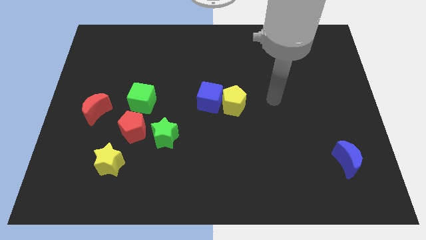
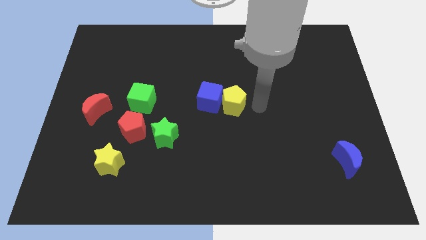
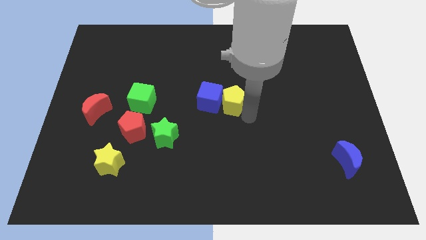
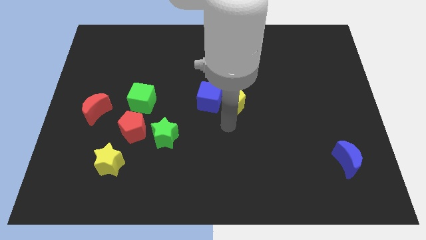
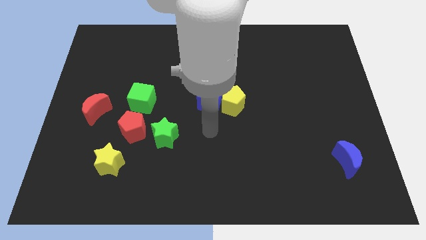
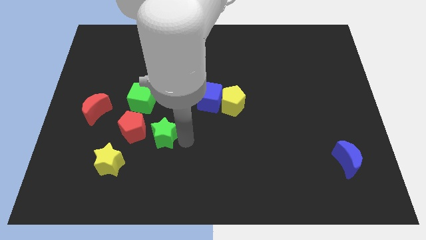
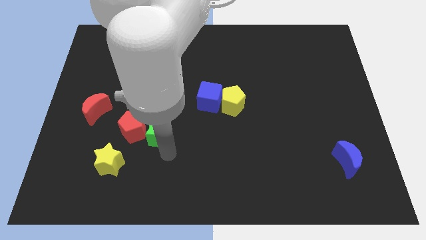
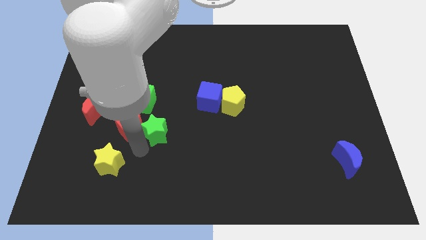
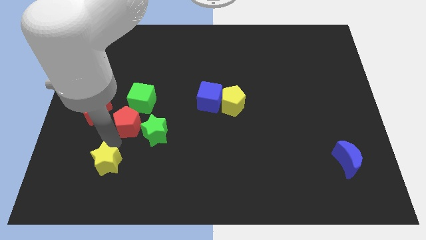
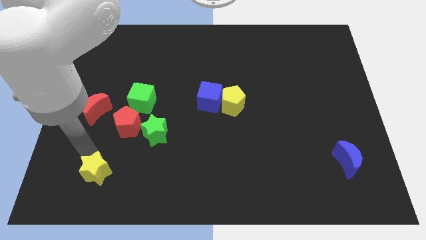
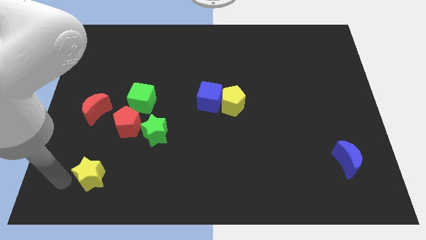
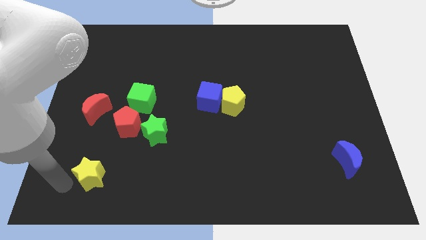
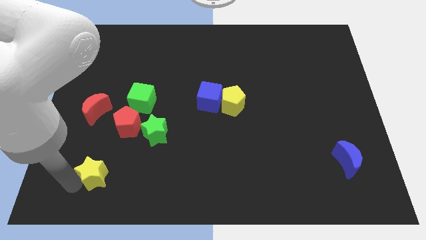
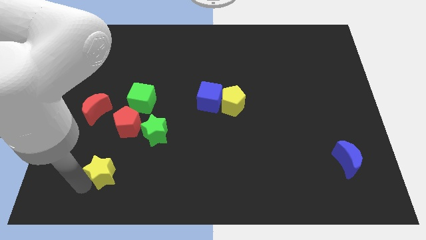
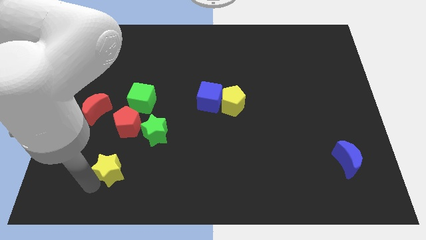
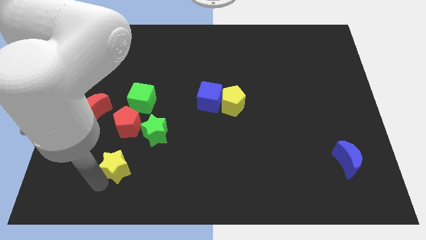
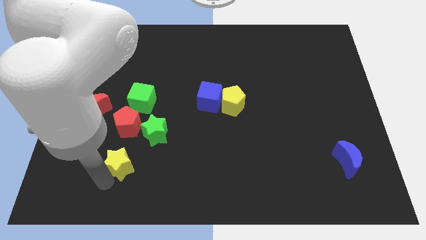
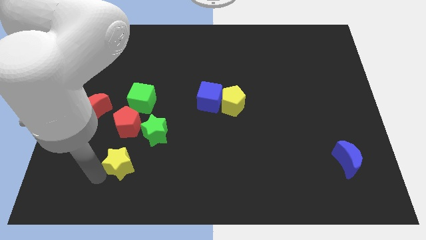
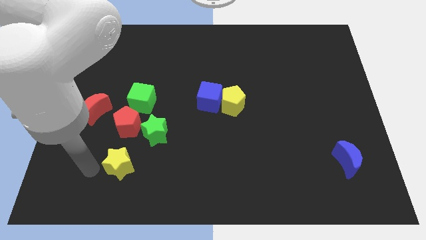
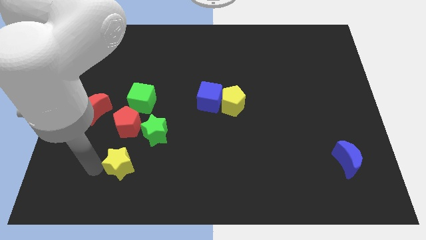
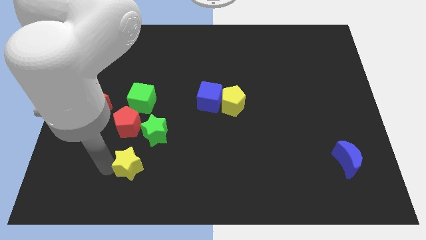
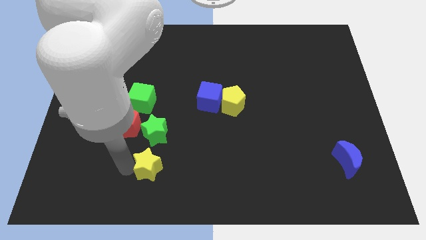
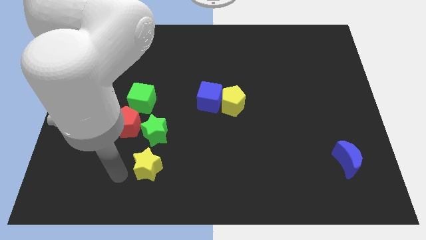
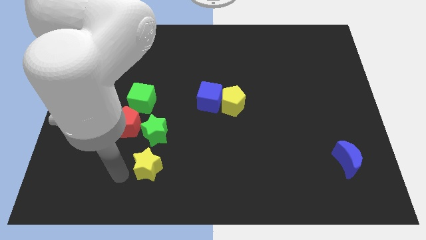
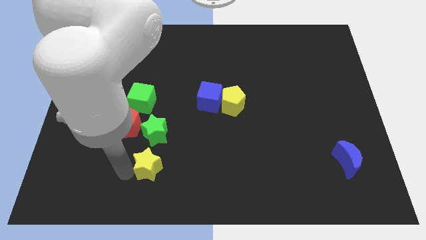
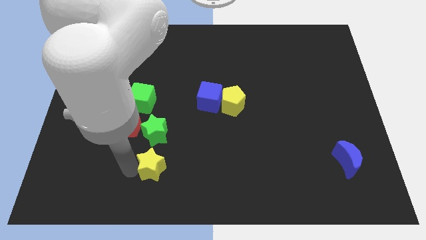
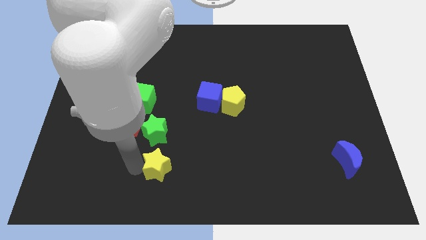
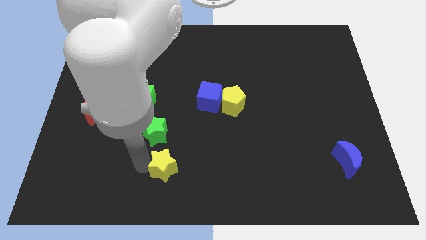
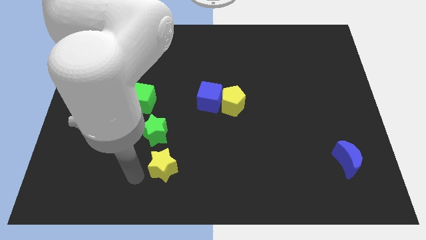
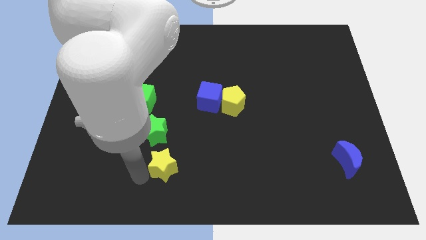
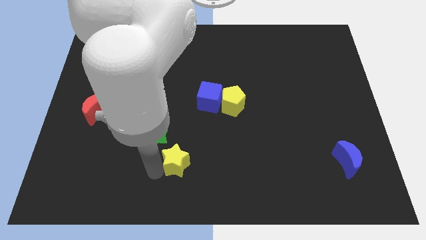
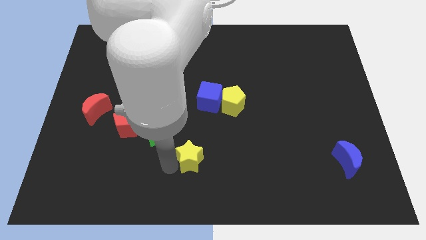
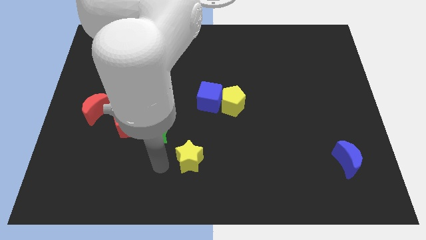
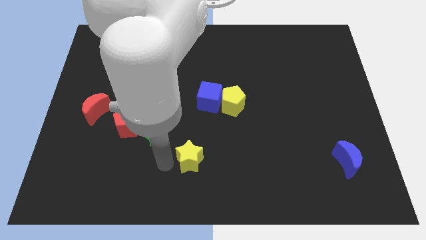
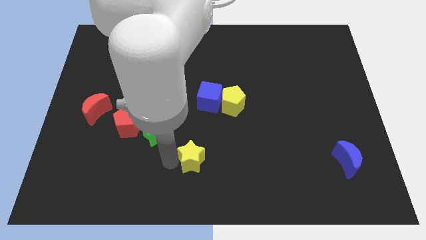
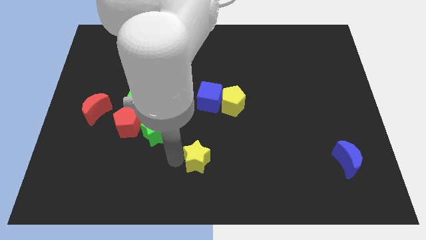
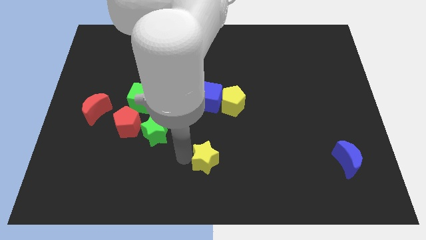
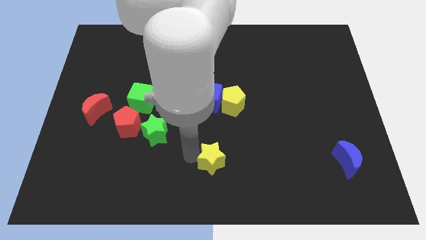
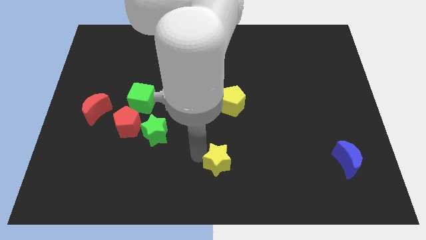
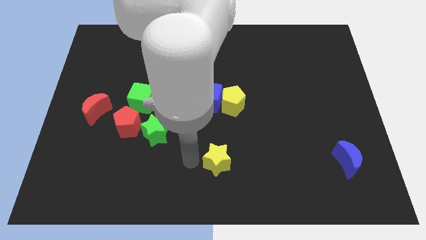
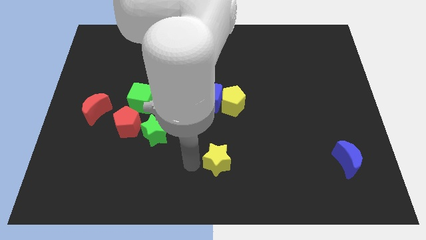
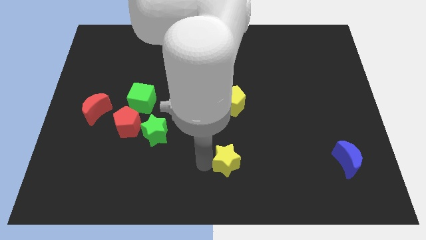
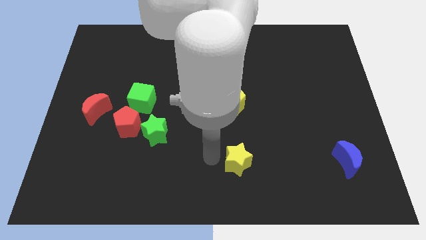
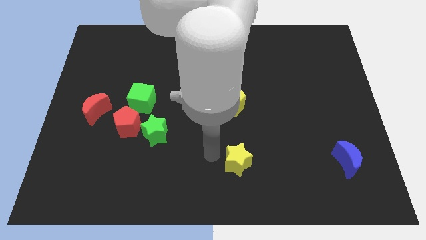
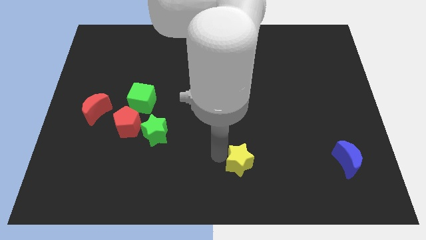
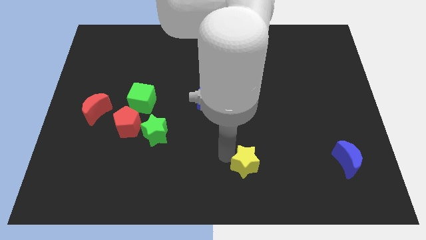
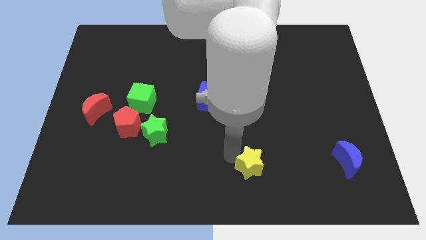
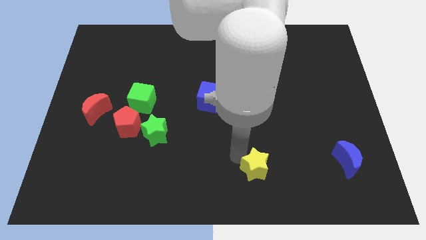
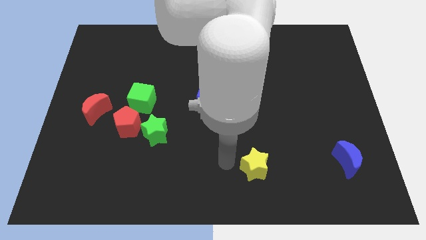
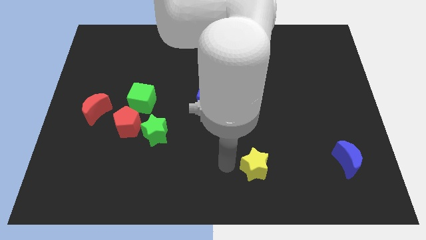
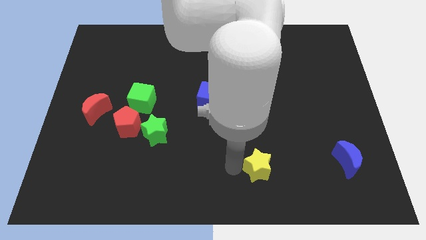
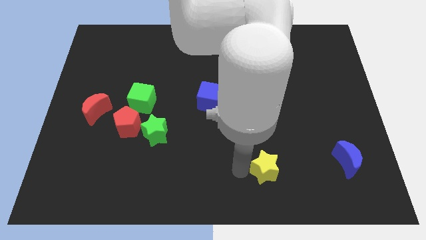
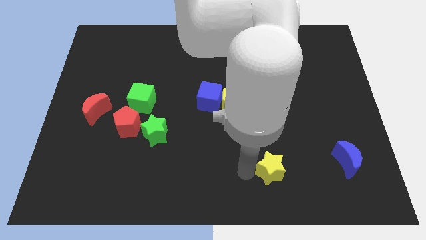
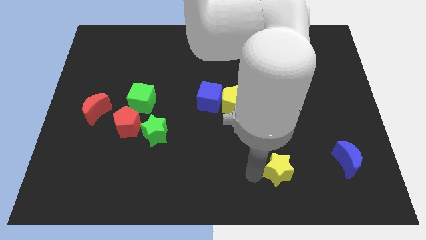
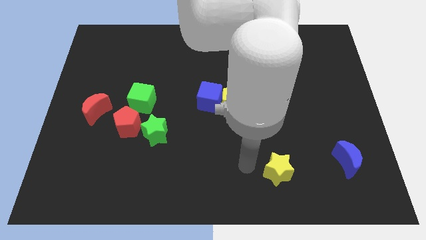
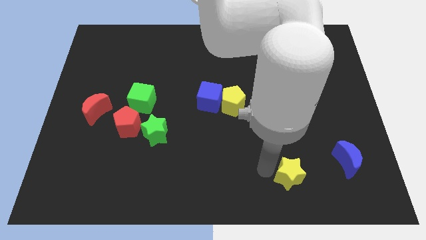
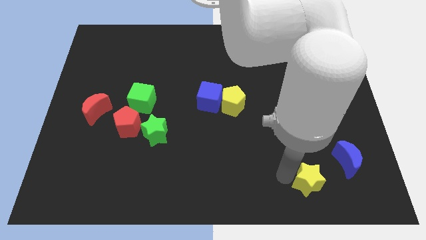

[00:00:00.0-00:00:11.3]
put the yellow star diagonally down and to the left of the blue moon

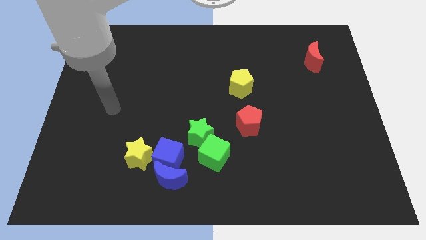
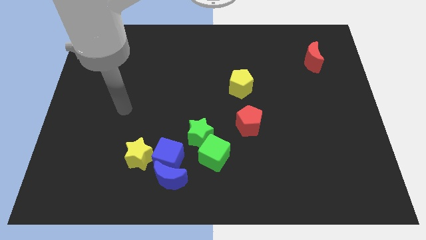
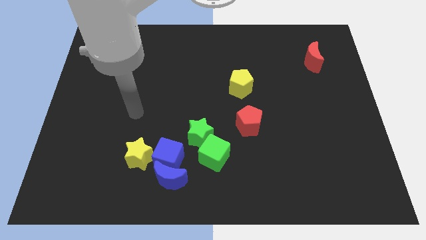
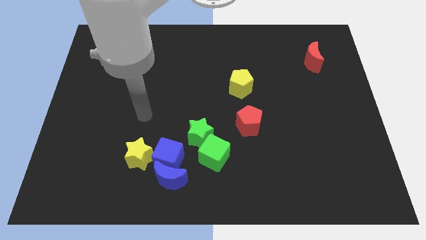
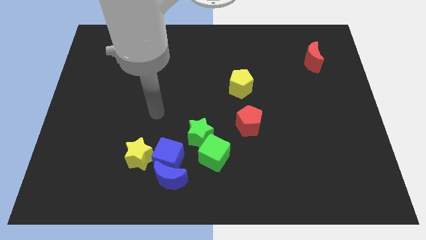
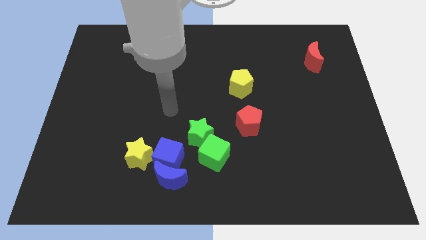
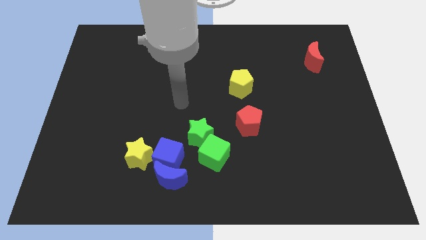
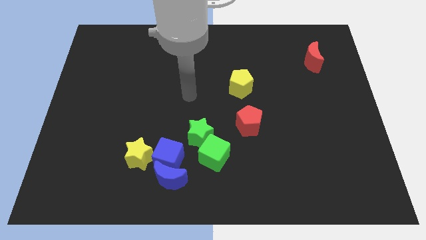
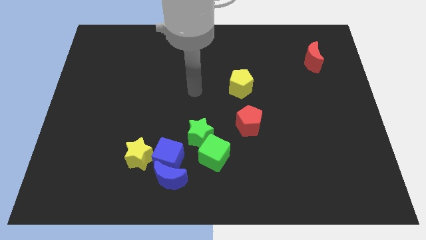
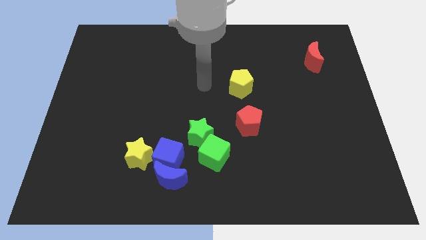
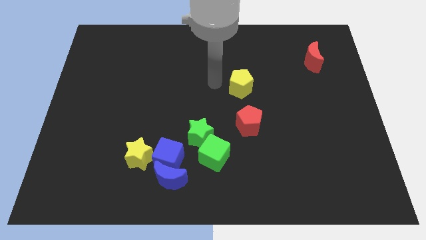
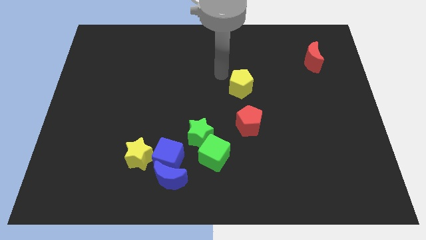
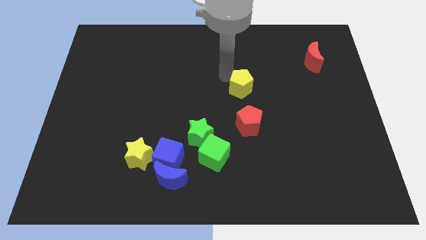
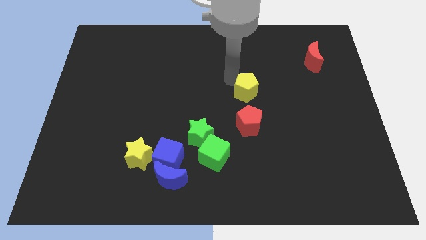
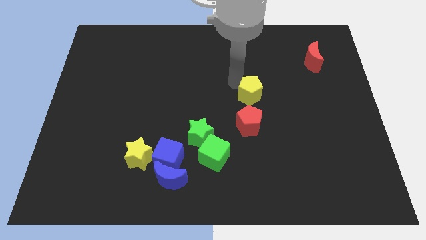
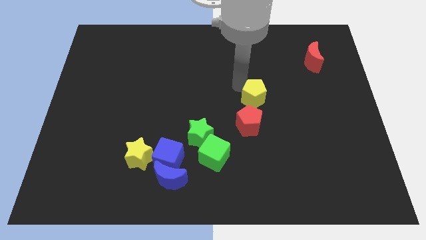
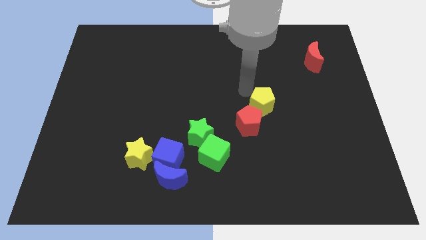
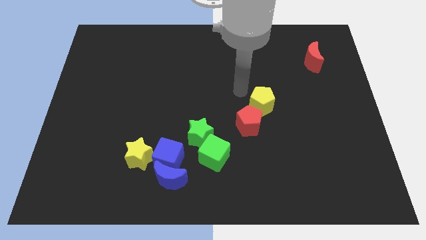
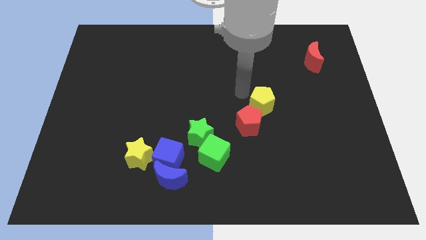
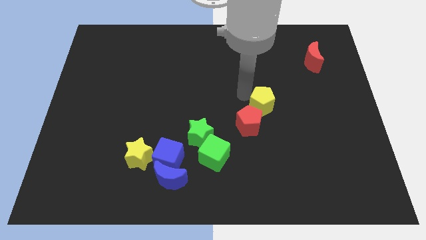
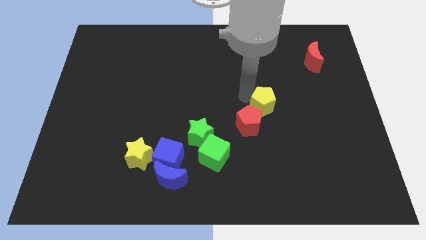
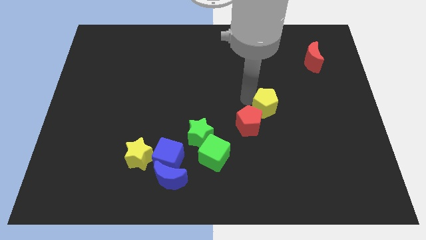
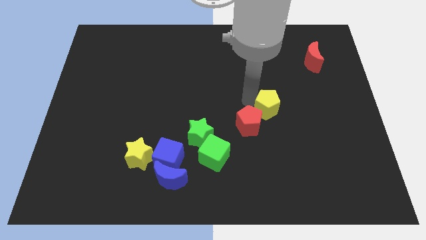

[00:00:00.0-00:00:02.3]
slide the yellow pentagon just right of the red pentagon
